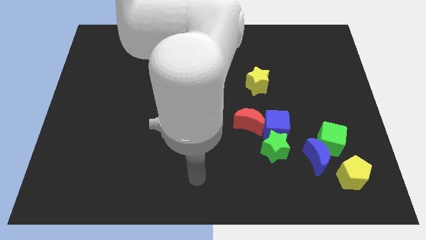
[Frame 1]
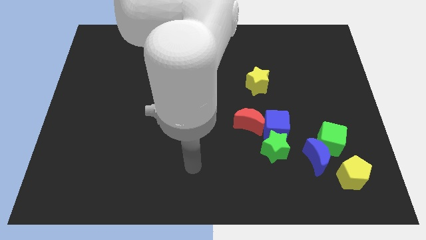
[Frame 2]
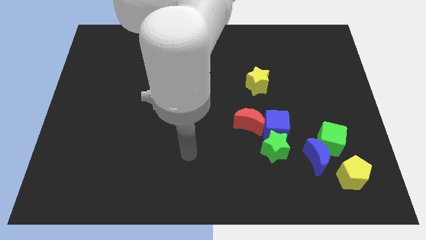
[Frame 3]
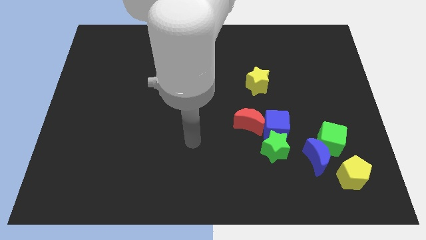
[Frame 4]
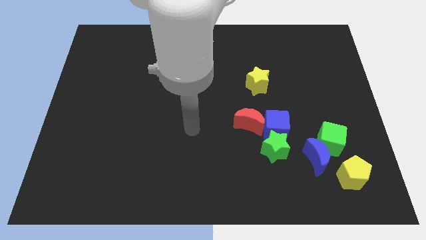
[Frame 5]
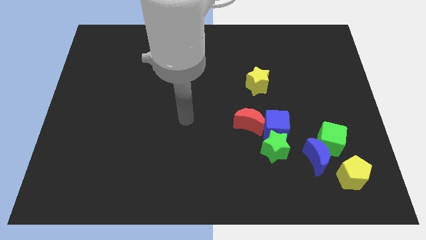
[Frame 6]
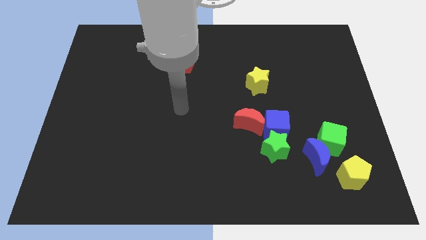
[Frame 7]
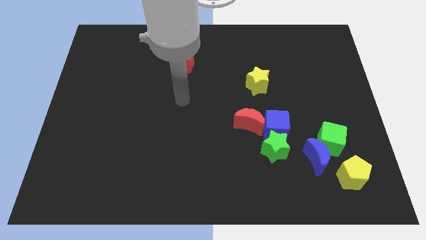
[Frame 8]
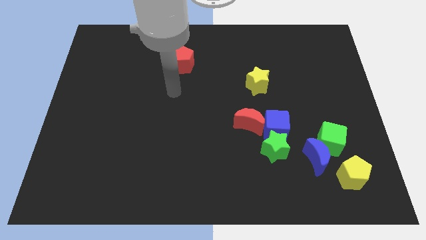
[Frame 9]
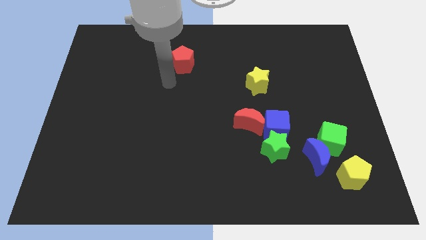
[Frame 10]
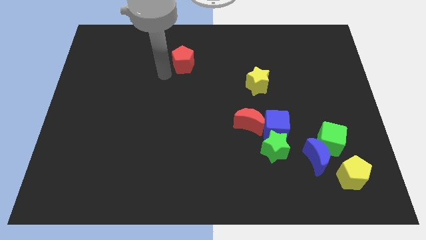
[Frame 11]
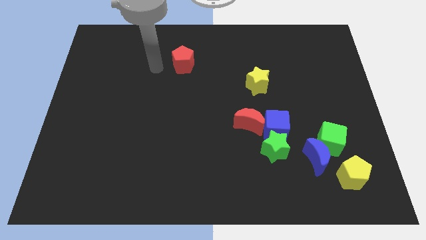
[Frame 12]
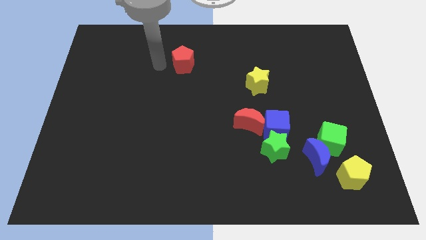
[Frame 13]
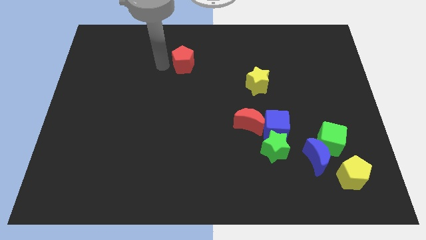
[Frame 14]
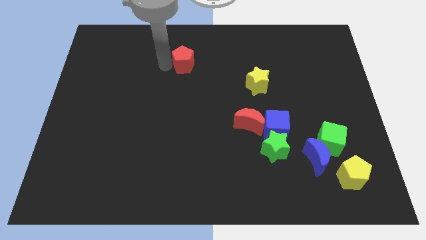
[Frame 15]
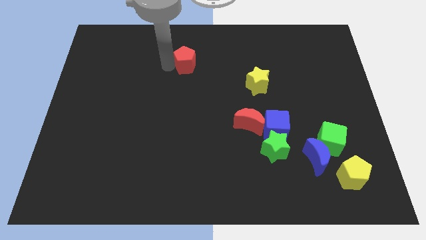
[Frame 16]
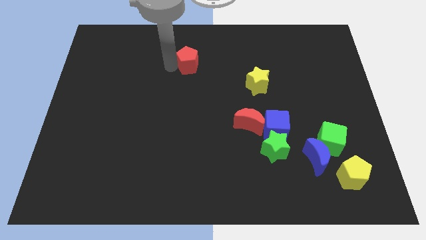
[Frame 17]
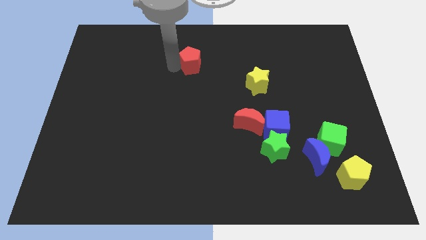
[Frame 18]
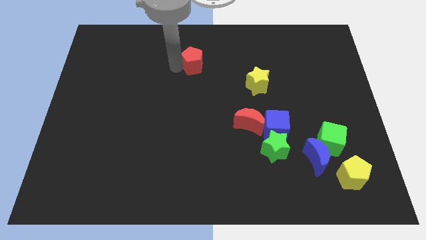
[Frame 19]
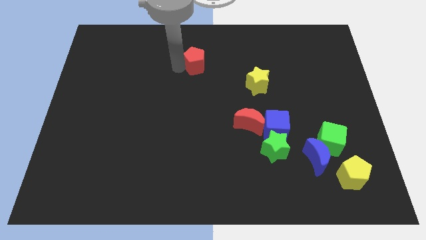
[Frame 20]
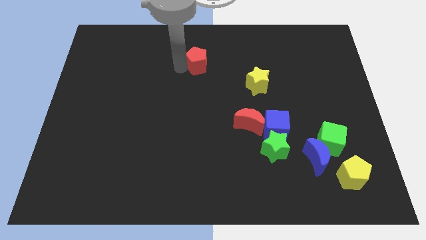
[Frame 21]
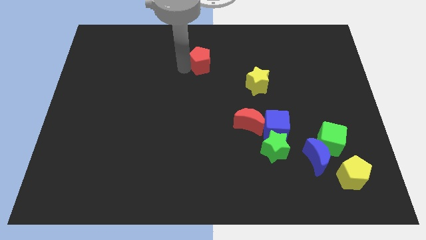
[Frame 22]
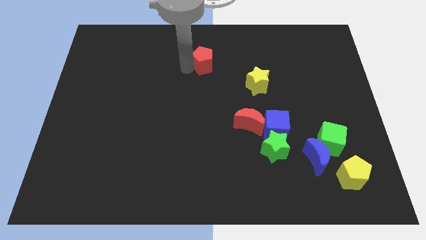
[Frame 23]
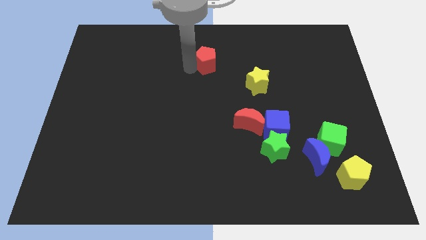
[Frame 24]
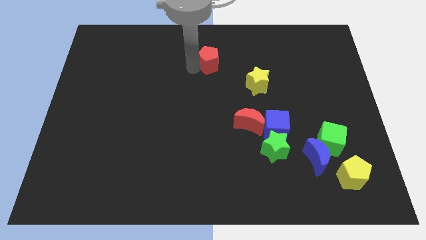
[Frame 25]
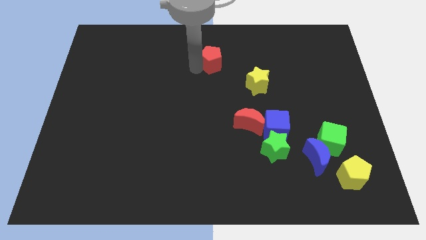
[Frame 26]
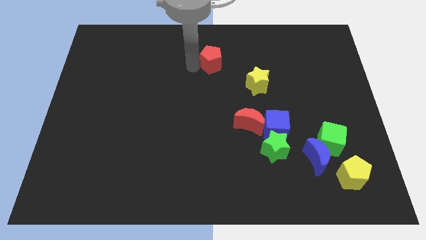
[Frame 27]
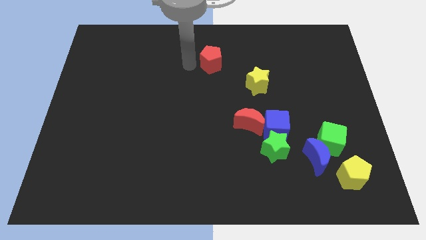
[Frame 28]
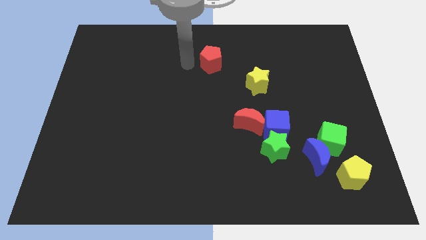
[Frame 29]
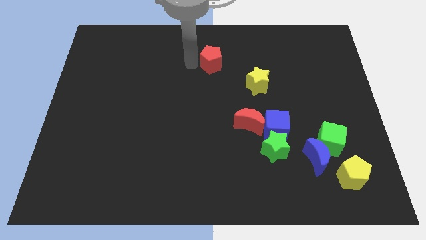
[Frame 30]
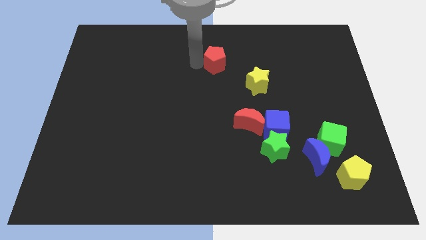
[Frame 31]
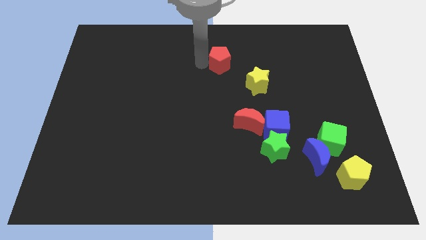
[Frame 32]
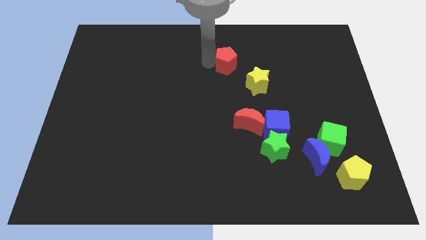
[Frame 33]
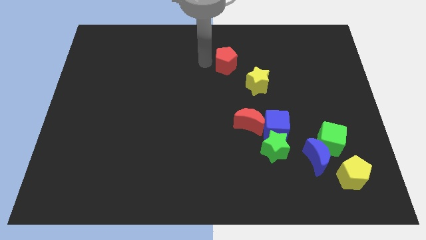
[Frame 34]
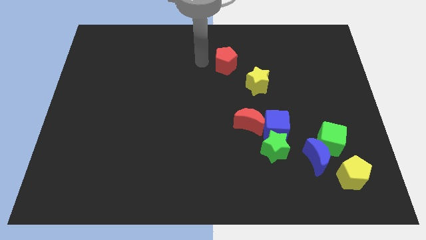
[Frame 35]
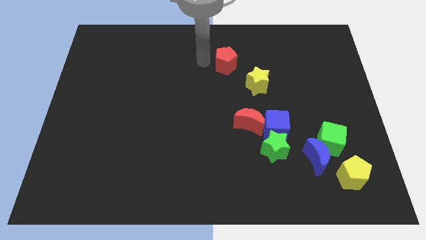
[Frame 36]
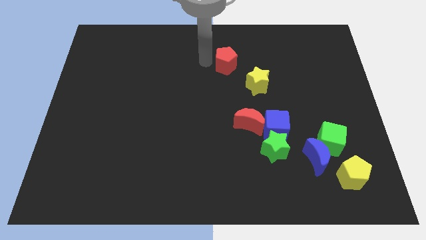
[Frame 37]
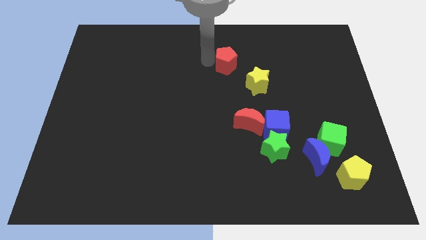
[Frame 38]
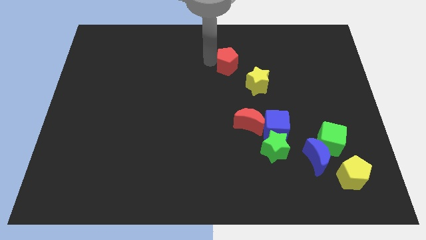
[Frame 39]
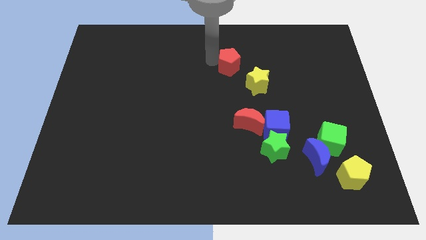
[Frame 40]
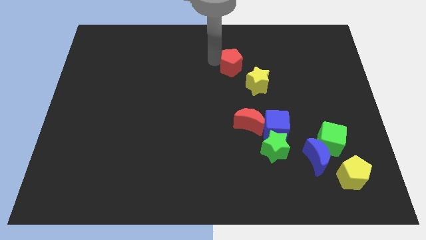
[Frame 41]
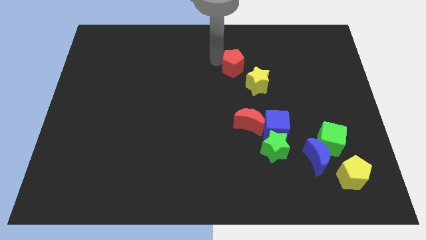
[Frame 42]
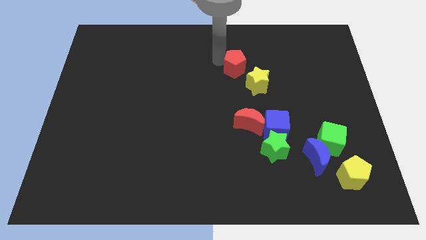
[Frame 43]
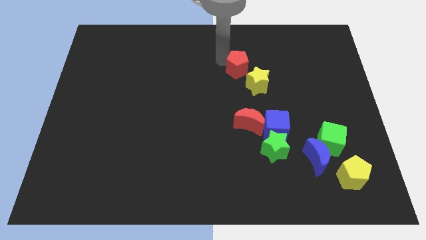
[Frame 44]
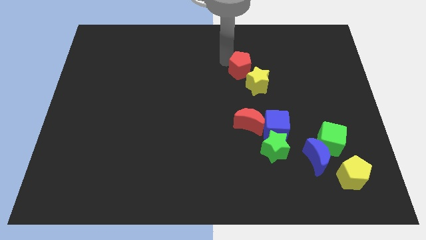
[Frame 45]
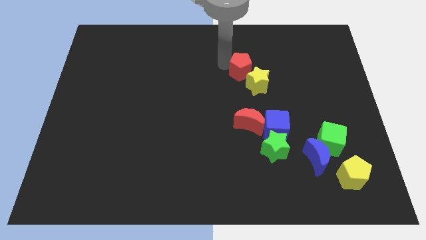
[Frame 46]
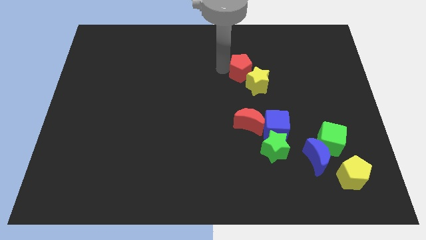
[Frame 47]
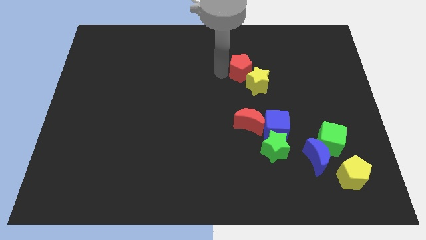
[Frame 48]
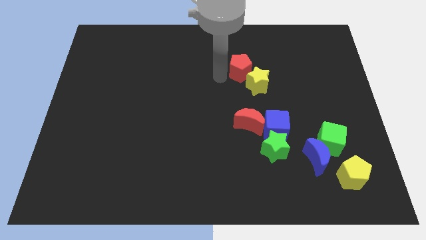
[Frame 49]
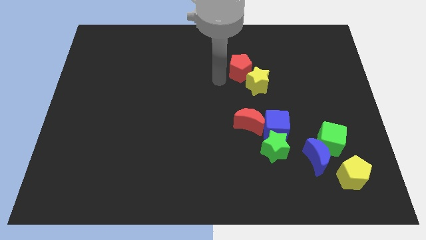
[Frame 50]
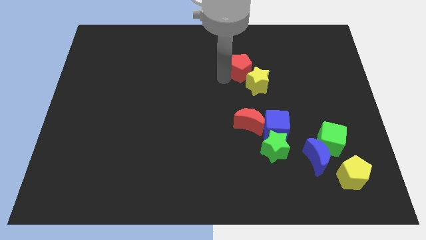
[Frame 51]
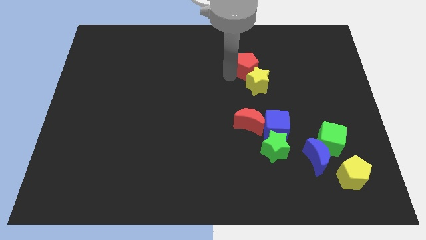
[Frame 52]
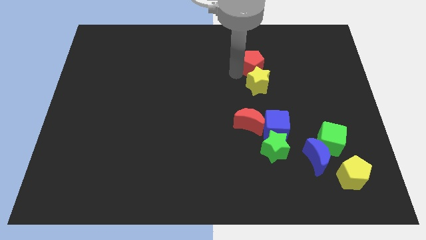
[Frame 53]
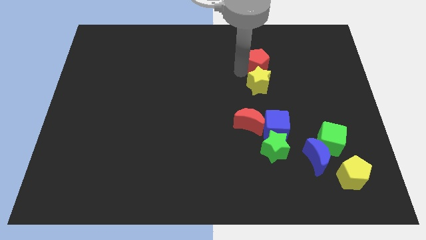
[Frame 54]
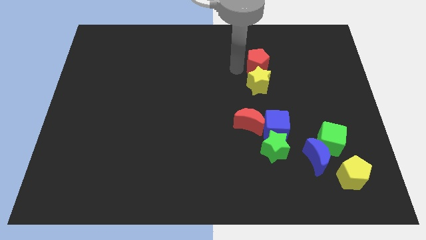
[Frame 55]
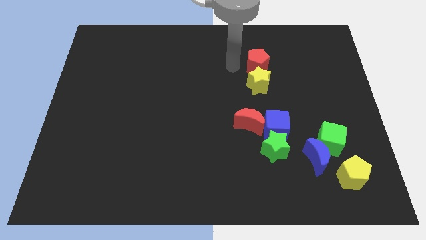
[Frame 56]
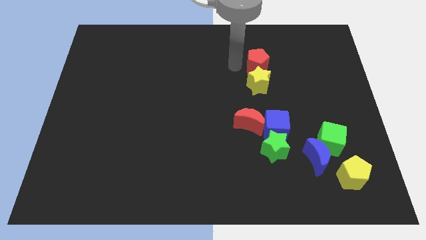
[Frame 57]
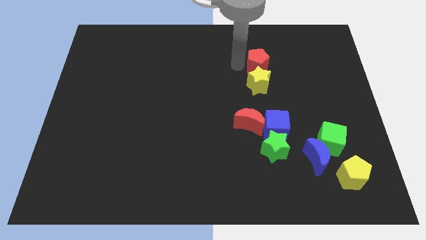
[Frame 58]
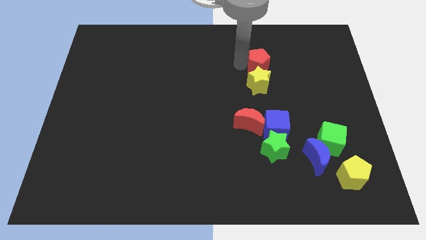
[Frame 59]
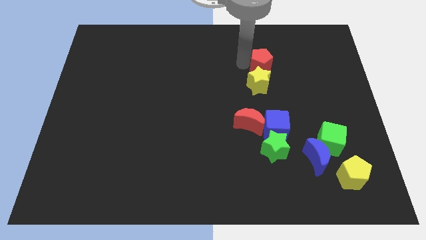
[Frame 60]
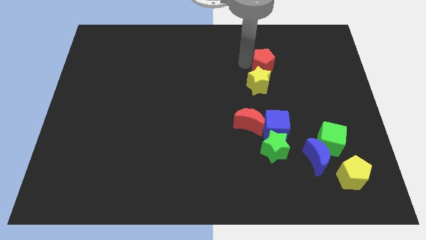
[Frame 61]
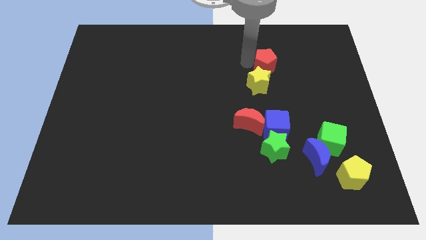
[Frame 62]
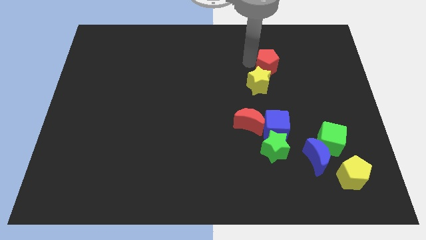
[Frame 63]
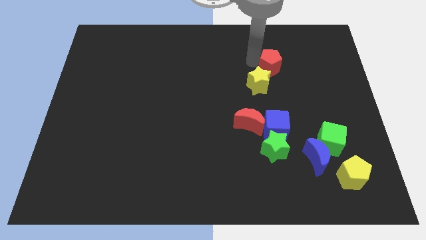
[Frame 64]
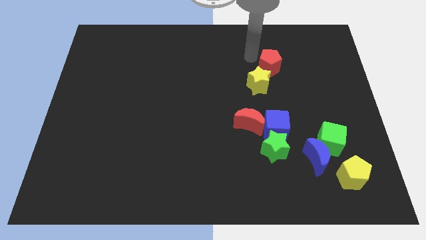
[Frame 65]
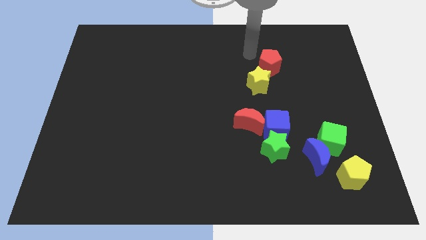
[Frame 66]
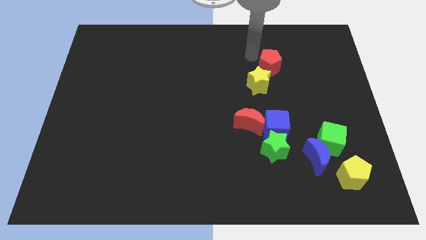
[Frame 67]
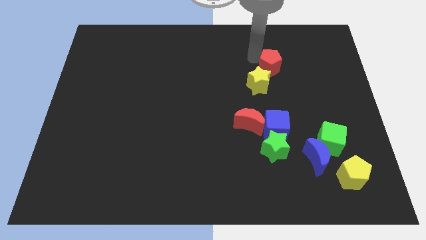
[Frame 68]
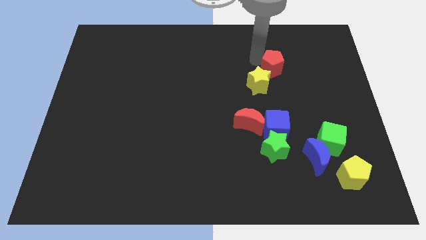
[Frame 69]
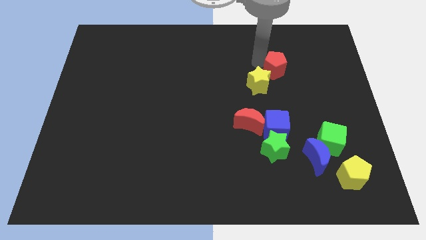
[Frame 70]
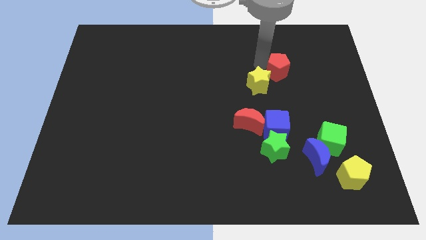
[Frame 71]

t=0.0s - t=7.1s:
push the red pentagon to the right side of the yellow star
